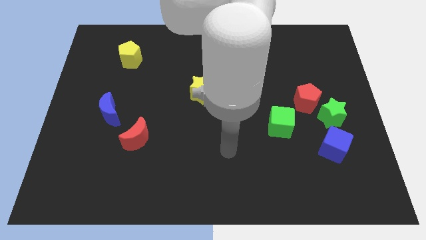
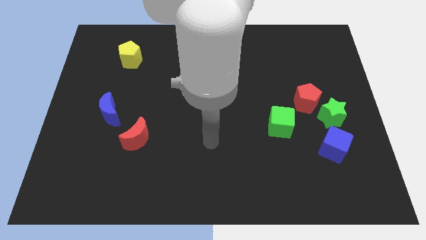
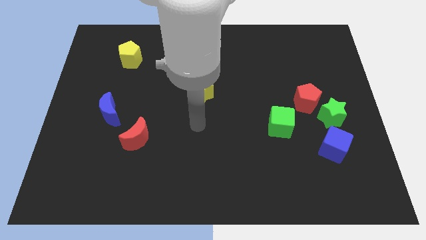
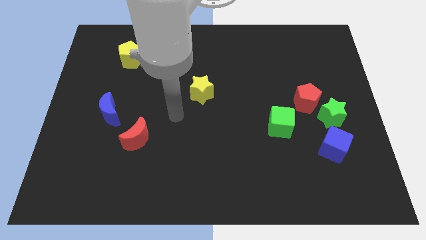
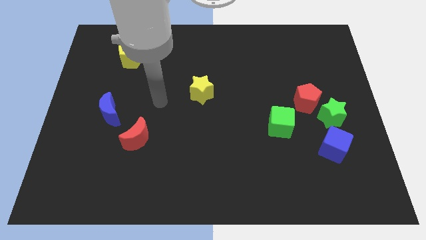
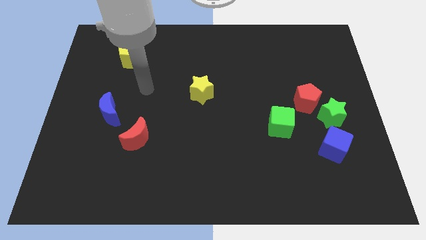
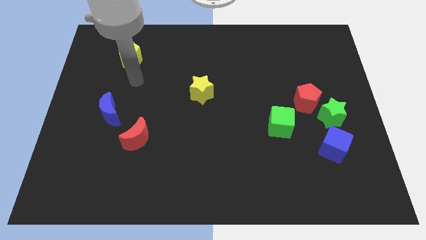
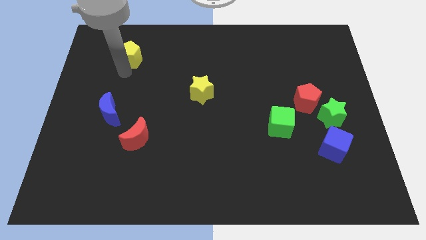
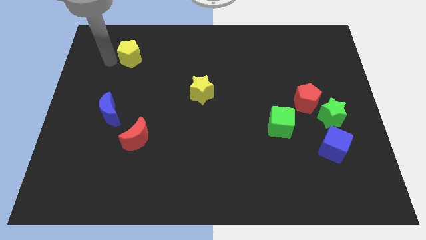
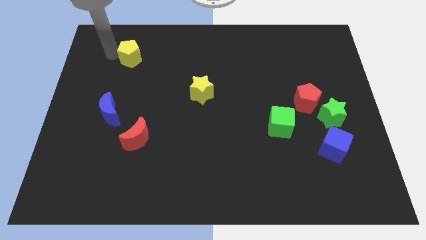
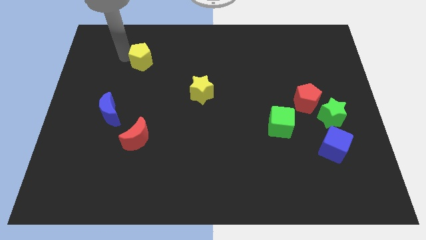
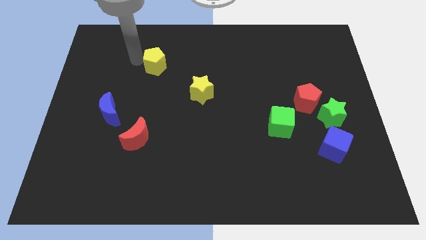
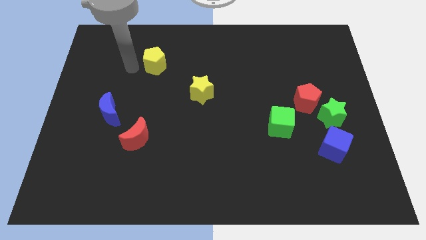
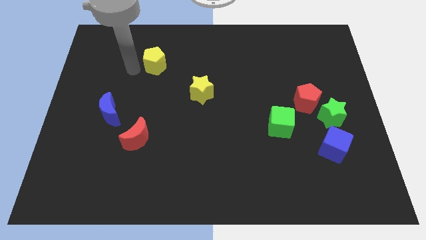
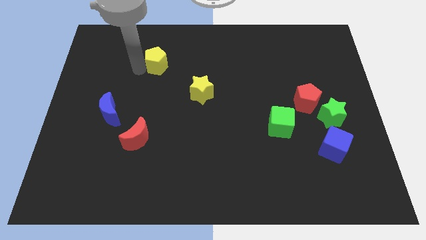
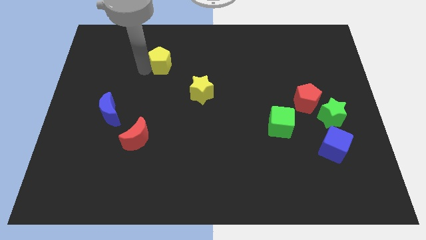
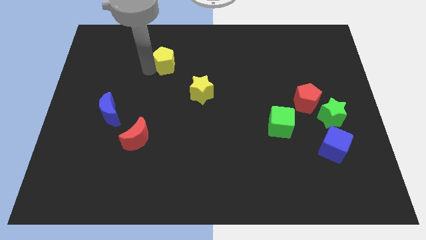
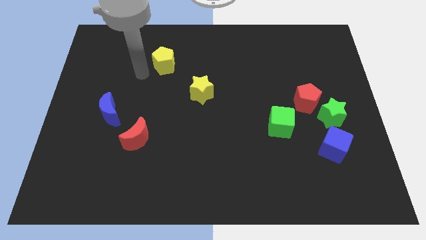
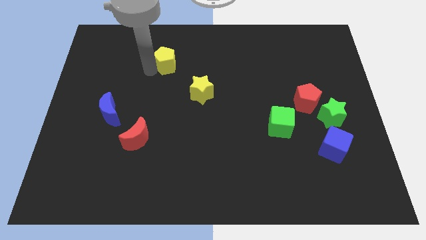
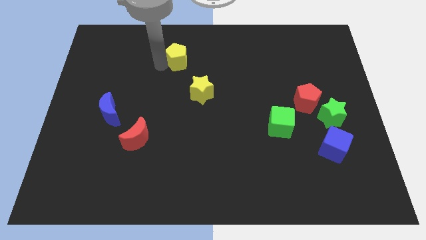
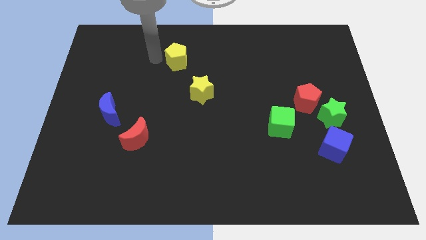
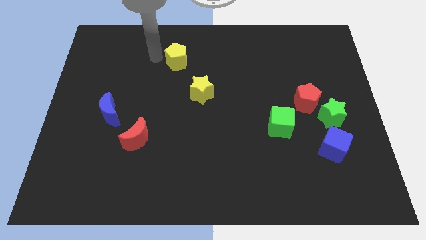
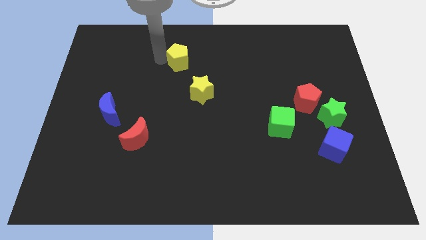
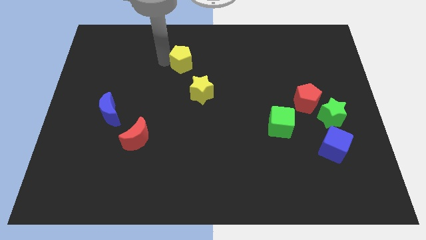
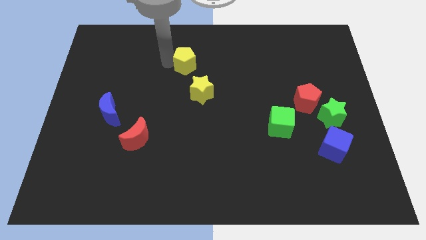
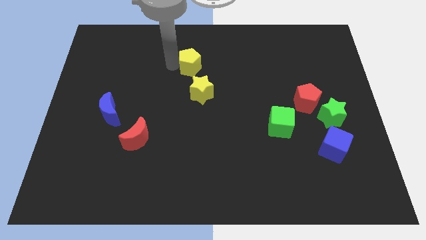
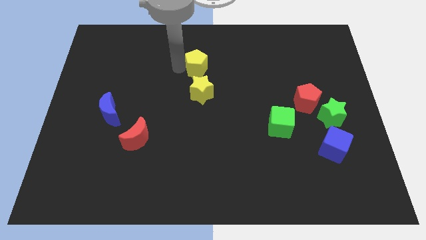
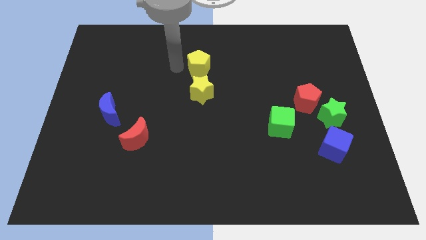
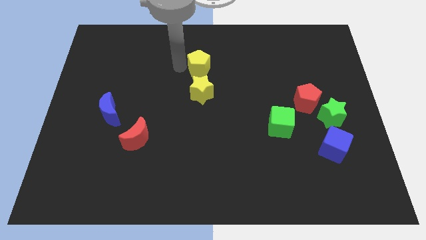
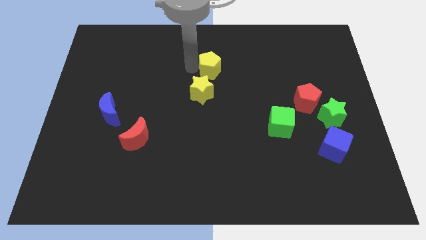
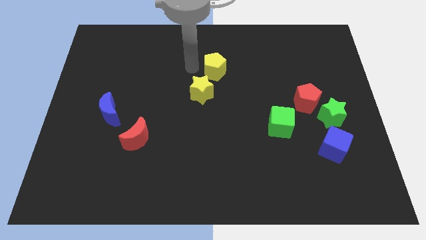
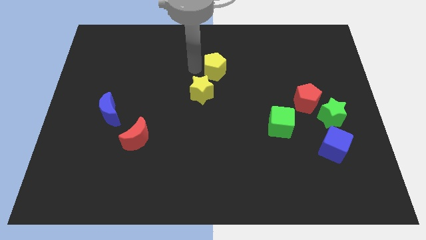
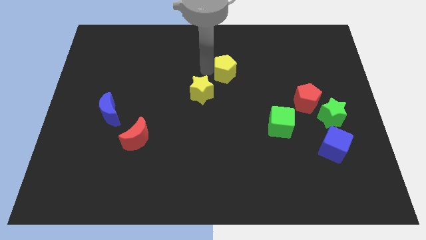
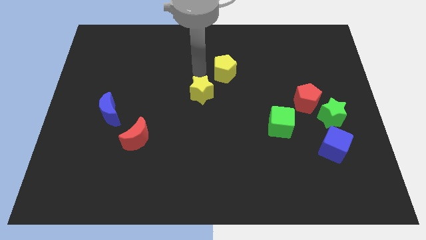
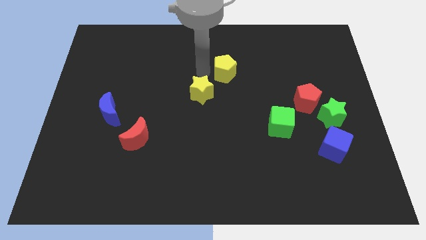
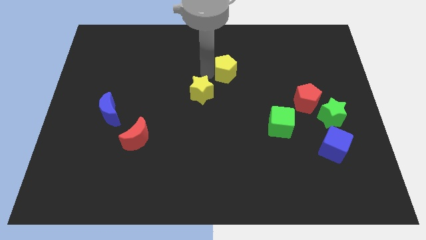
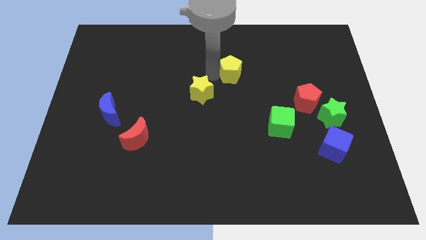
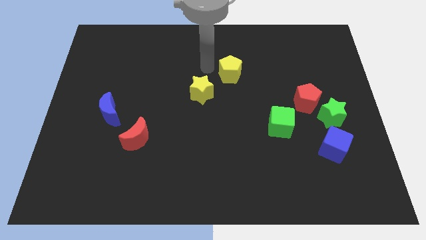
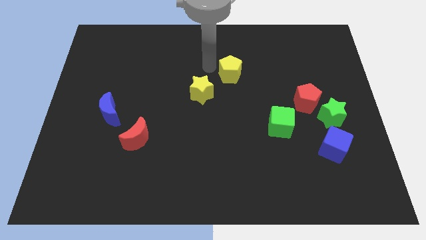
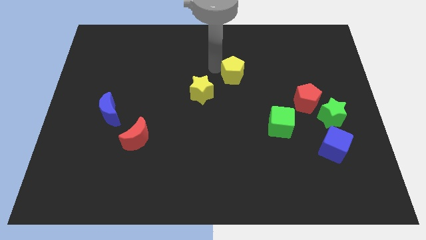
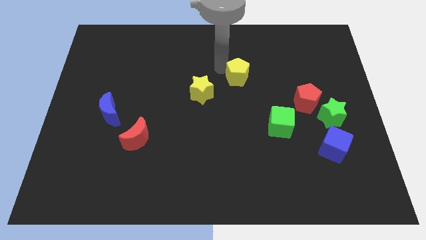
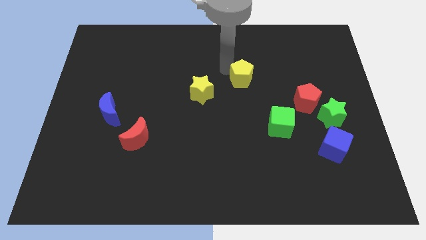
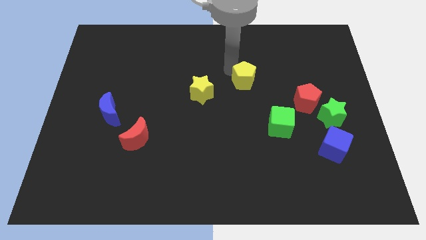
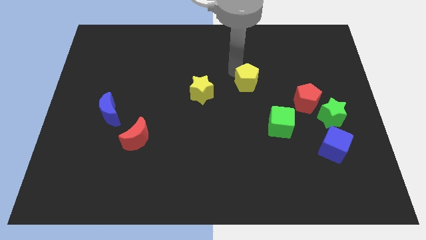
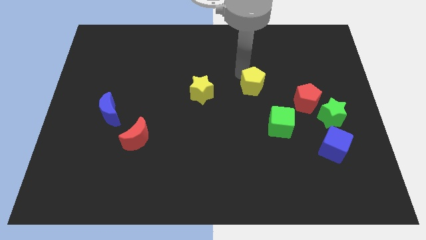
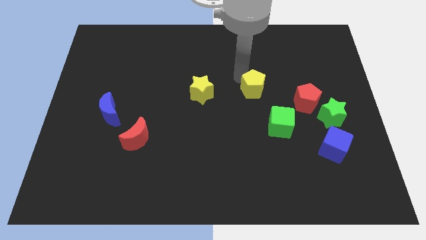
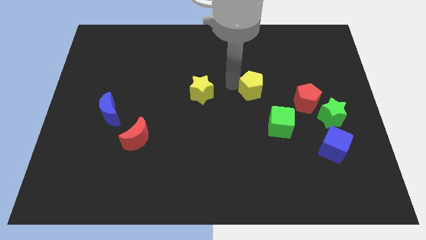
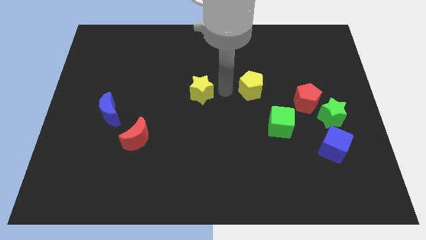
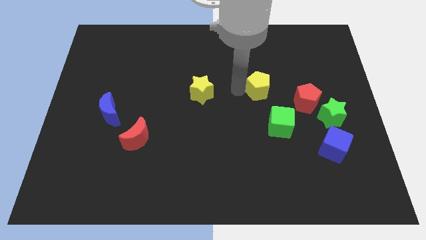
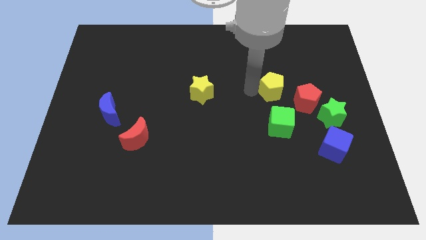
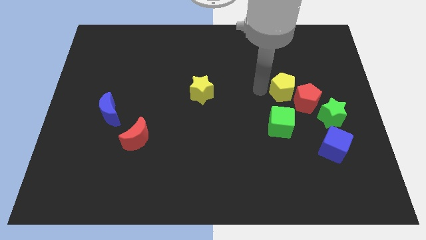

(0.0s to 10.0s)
push the yellow pentagon diagonally up and to the left of the green star

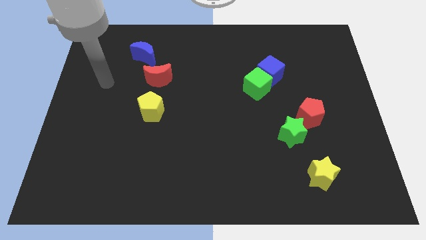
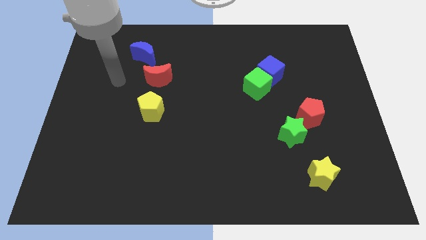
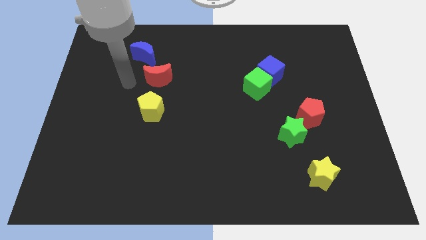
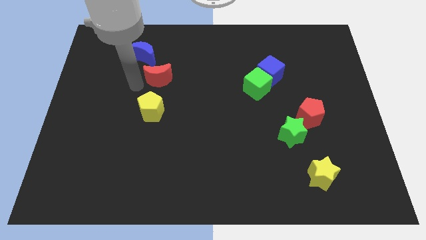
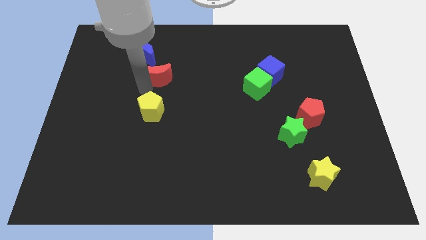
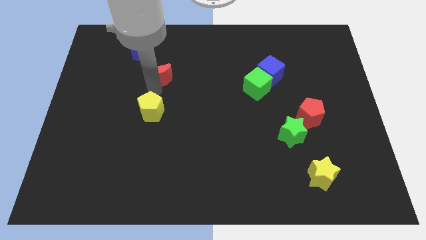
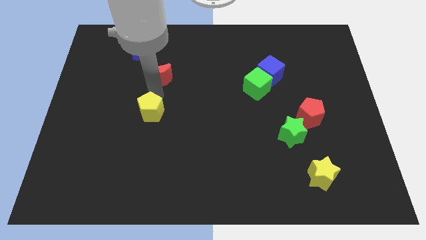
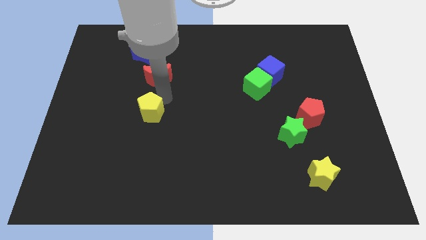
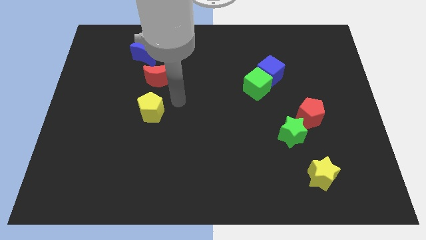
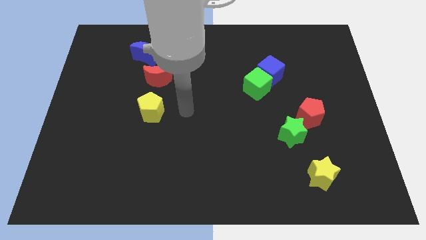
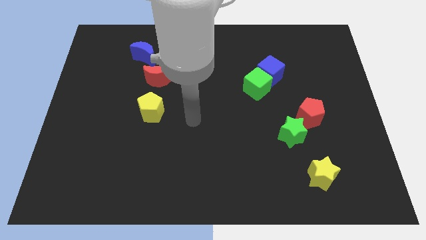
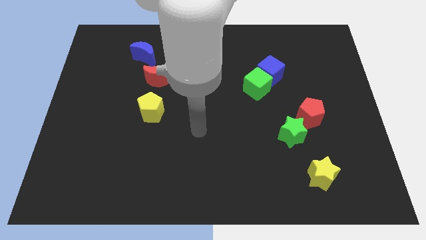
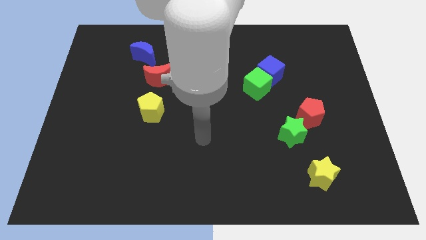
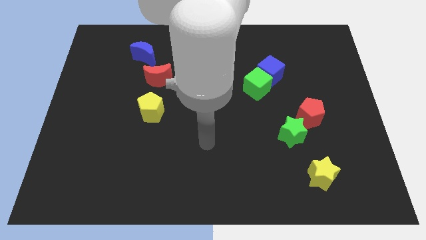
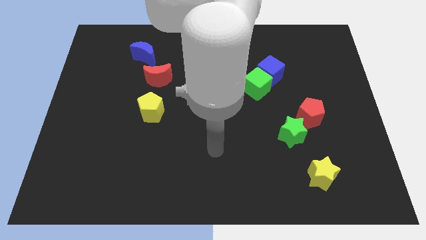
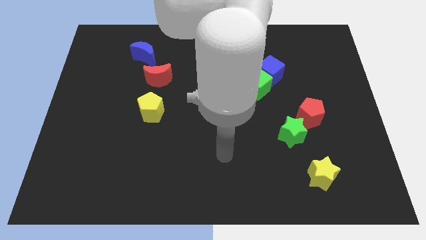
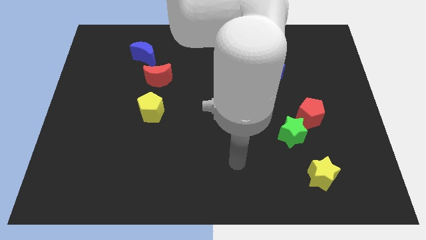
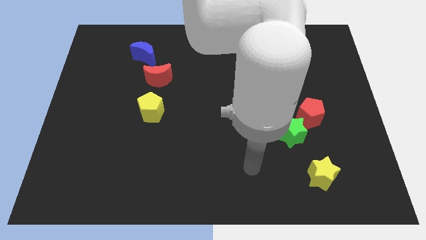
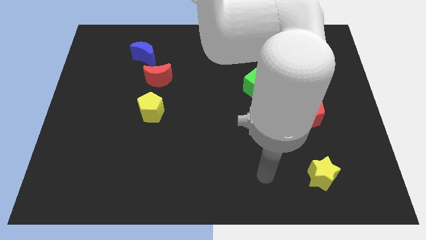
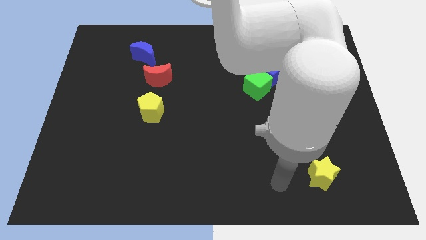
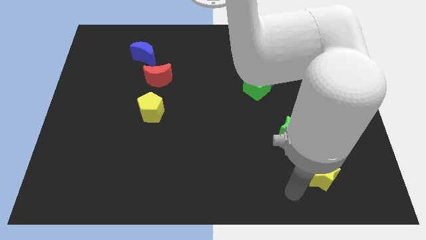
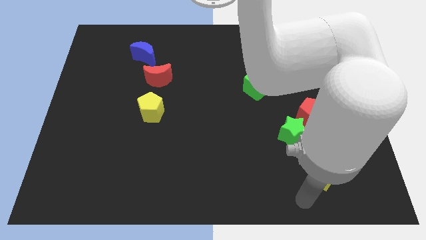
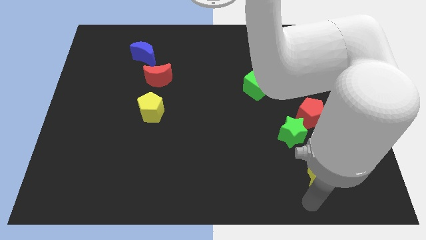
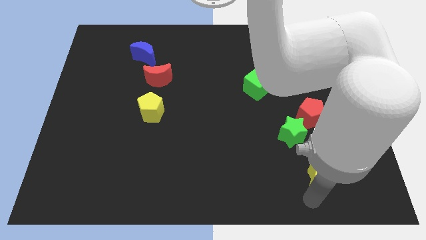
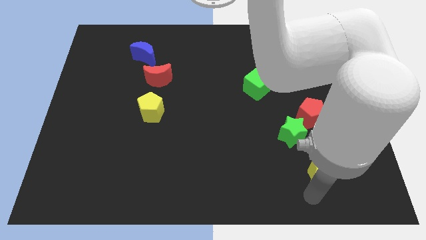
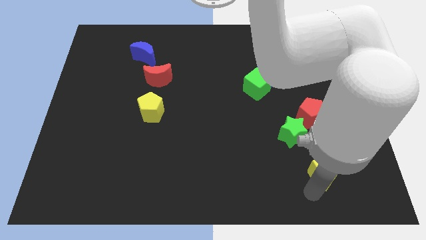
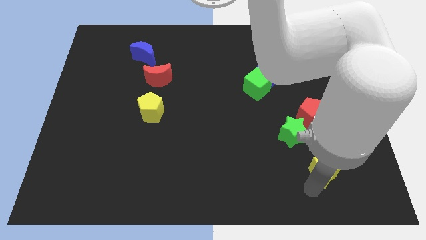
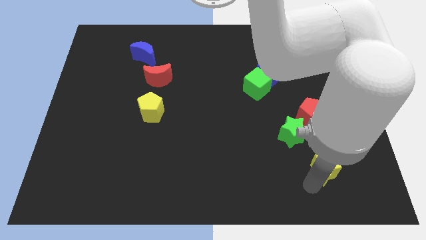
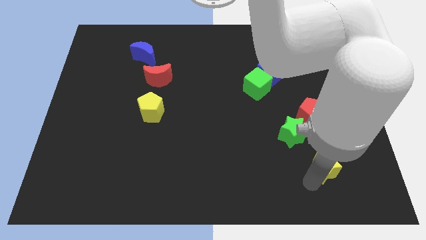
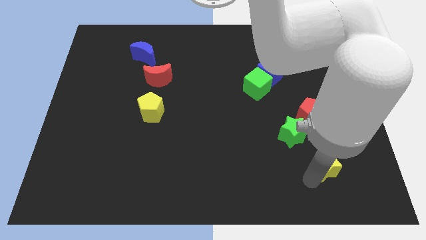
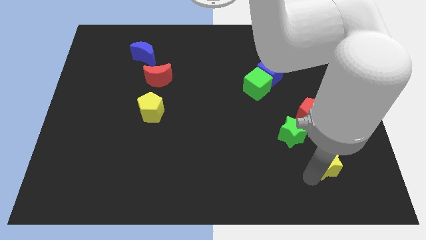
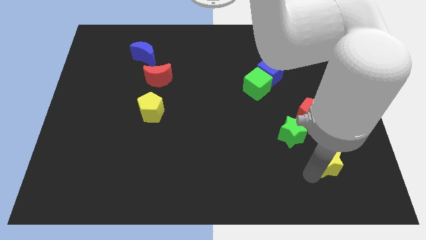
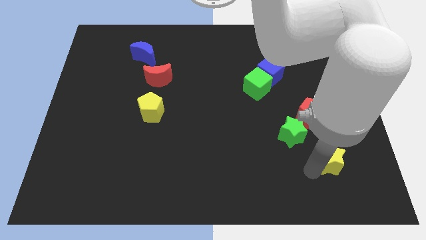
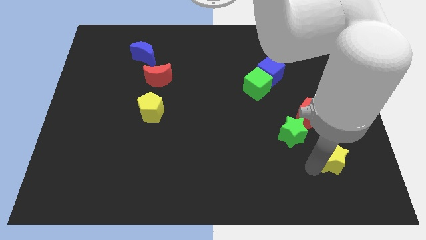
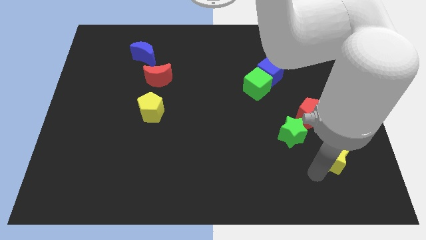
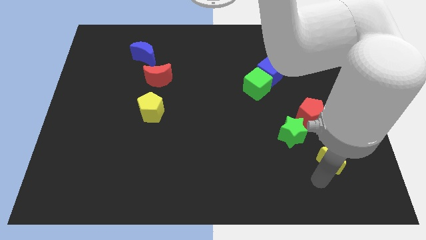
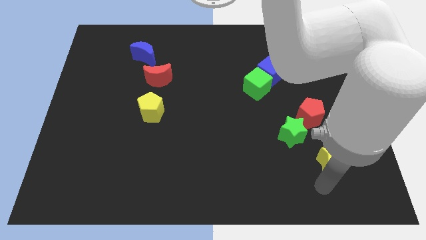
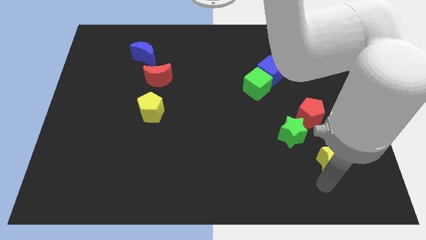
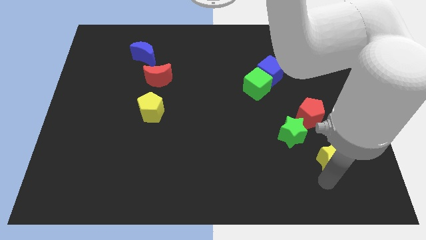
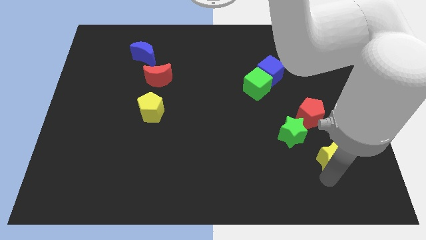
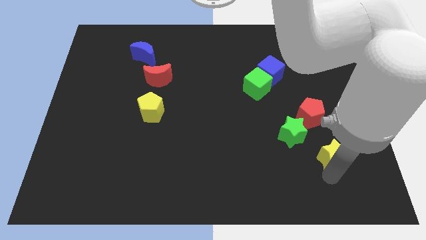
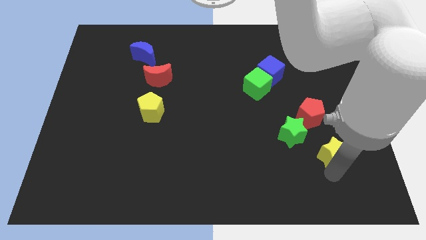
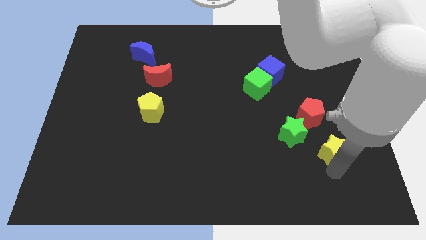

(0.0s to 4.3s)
move the yellow star diagonally down and to the right of the red pentagon
